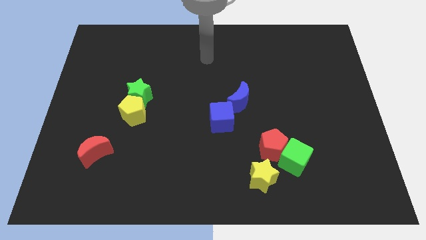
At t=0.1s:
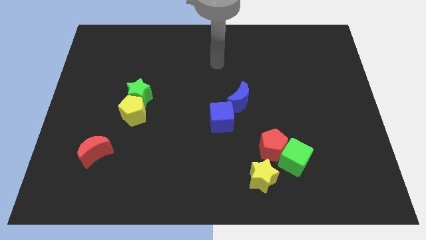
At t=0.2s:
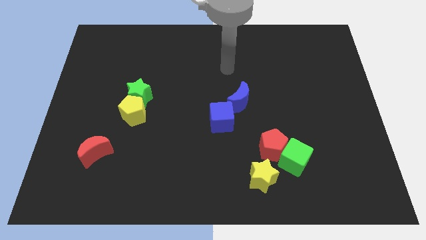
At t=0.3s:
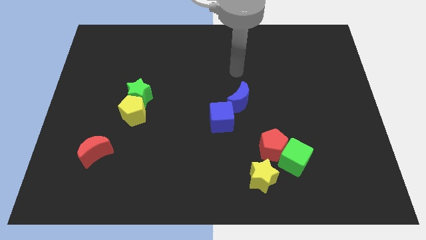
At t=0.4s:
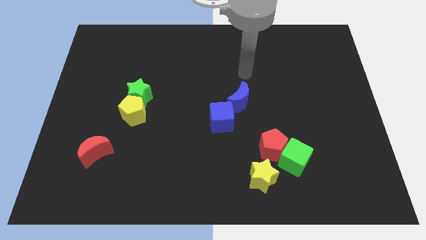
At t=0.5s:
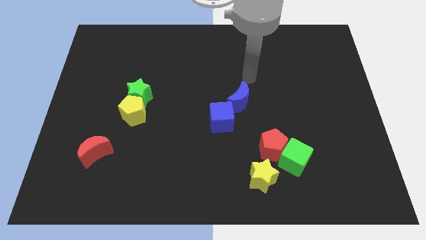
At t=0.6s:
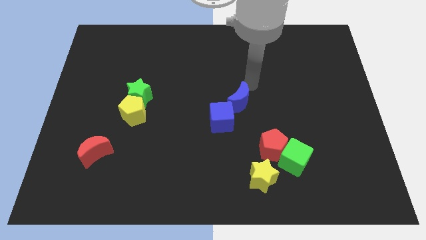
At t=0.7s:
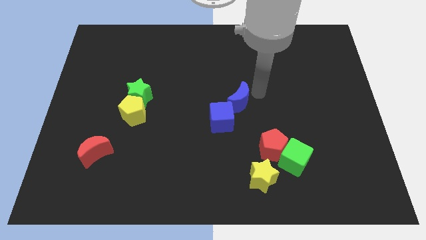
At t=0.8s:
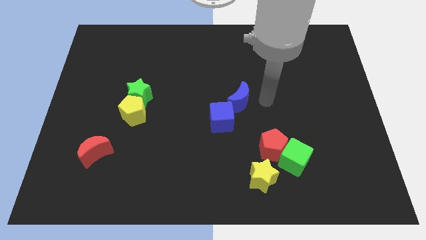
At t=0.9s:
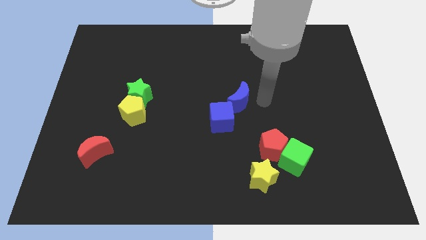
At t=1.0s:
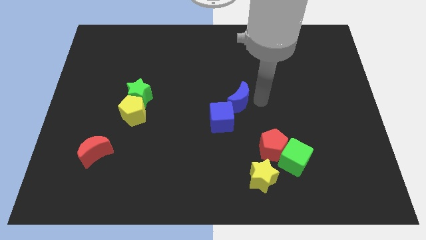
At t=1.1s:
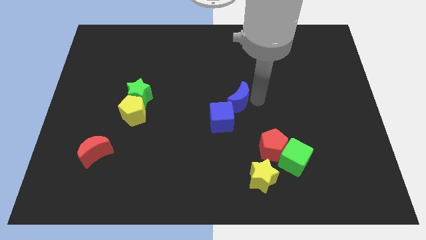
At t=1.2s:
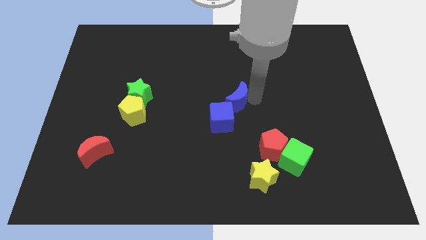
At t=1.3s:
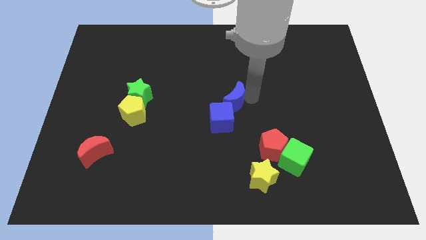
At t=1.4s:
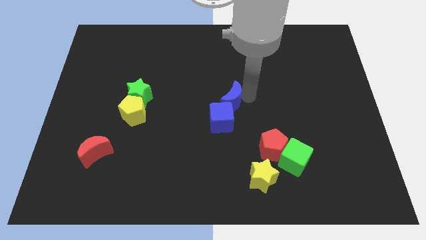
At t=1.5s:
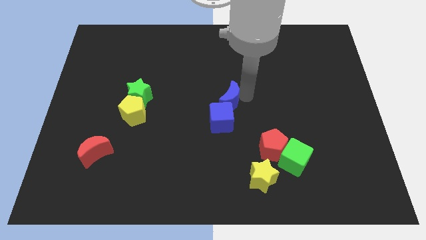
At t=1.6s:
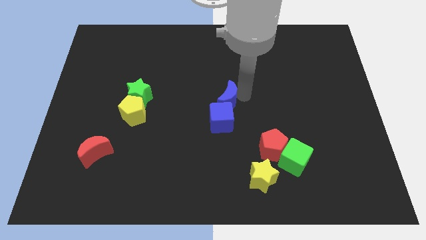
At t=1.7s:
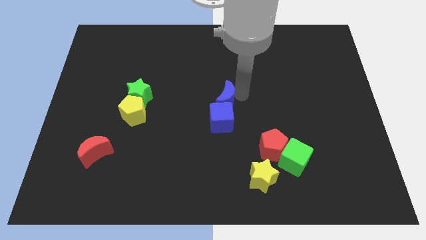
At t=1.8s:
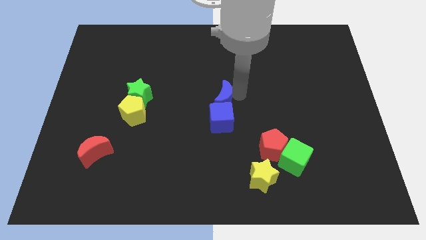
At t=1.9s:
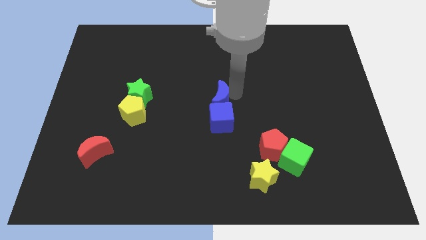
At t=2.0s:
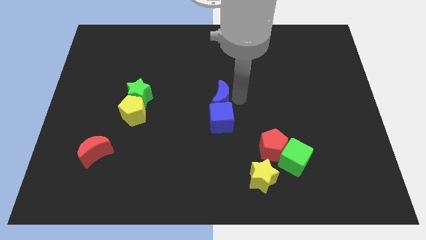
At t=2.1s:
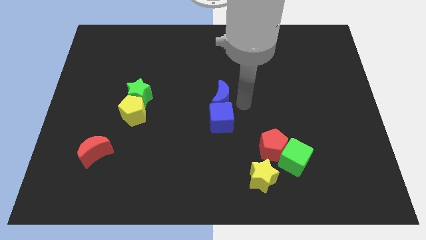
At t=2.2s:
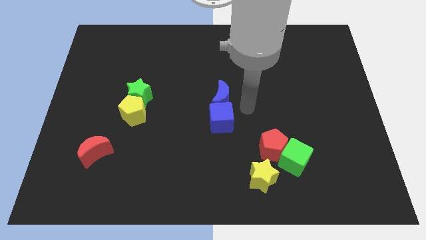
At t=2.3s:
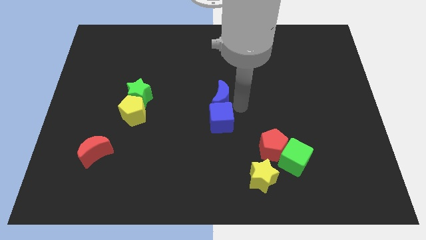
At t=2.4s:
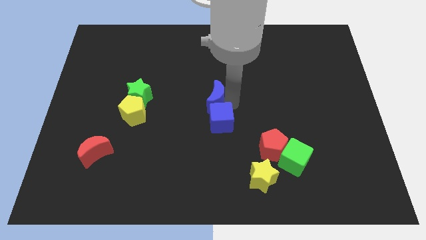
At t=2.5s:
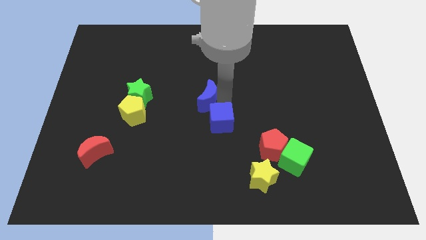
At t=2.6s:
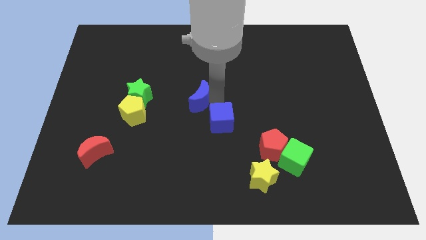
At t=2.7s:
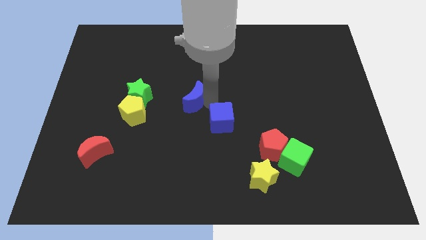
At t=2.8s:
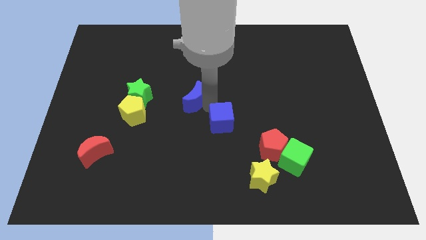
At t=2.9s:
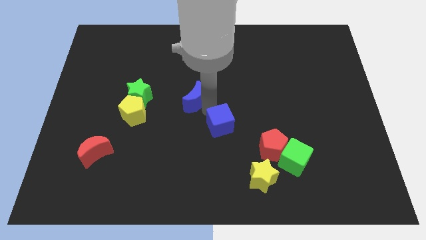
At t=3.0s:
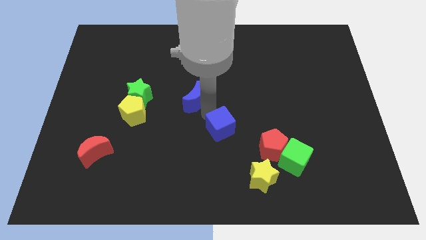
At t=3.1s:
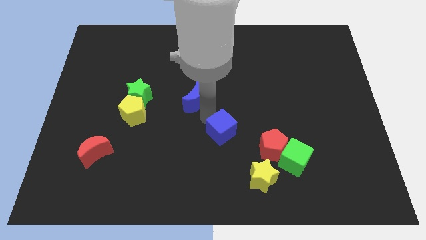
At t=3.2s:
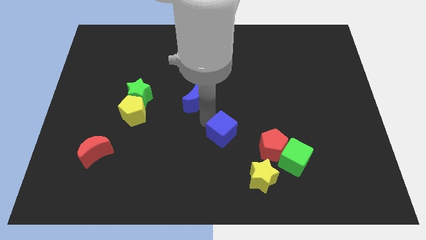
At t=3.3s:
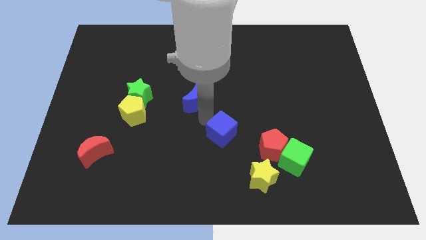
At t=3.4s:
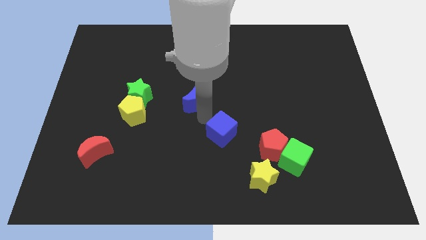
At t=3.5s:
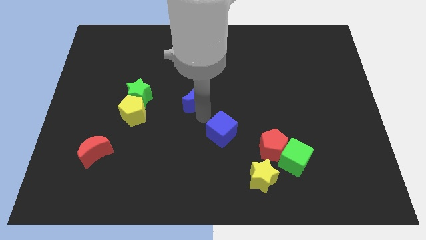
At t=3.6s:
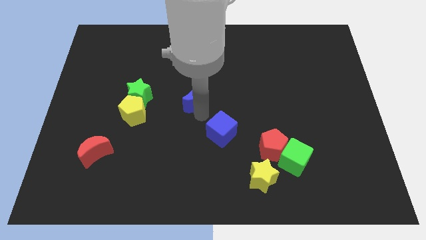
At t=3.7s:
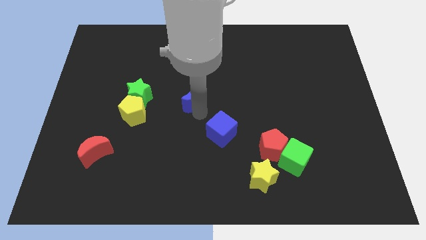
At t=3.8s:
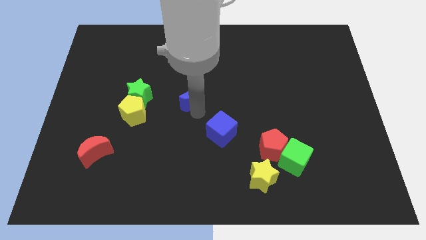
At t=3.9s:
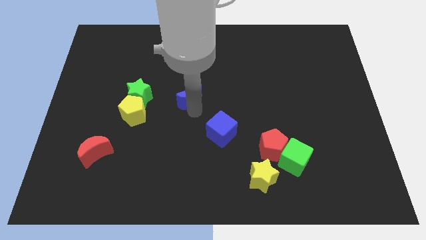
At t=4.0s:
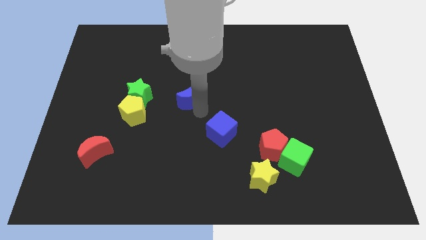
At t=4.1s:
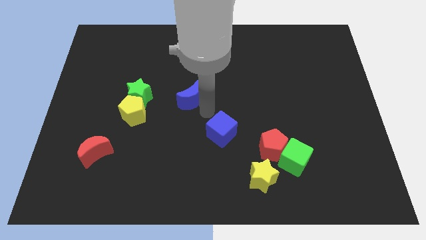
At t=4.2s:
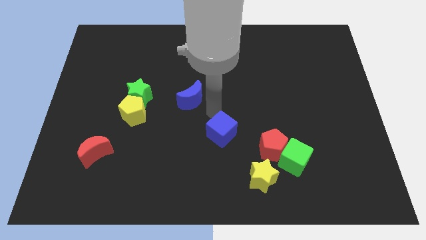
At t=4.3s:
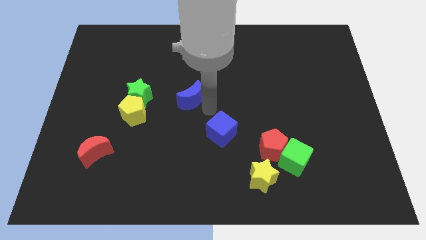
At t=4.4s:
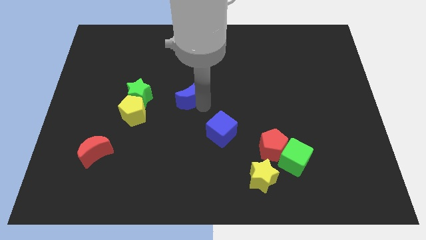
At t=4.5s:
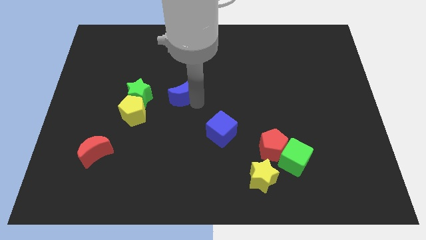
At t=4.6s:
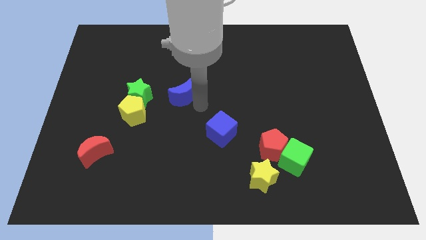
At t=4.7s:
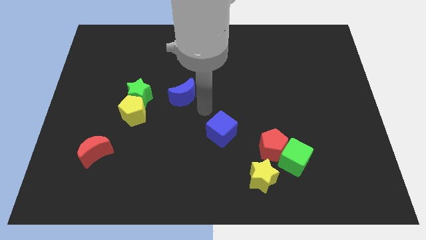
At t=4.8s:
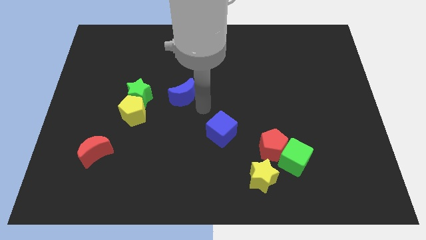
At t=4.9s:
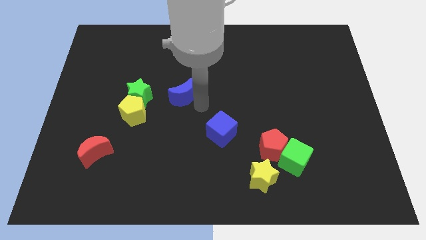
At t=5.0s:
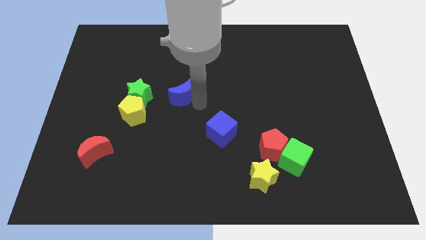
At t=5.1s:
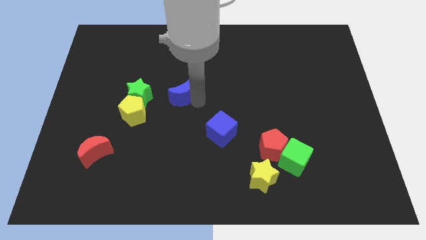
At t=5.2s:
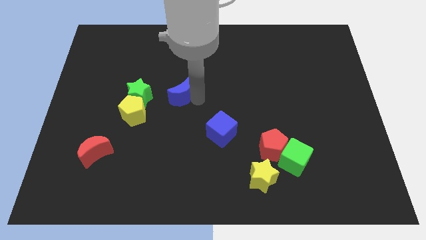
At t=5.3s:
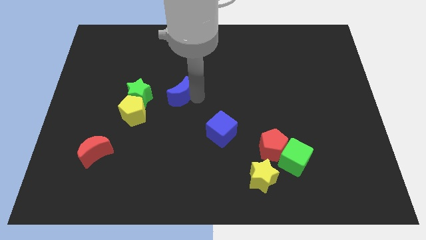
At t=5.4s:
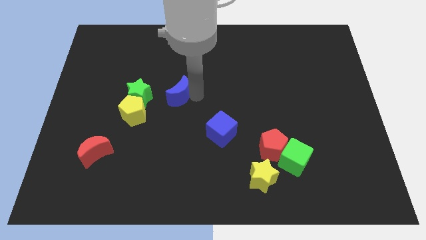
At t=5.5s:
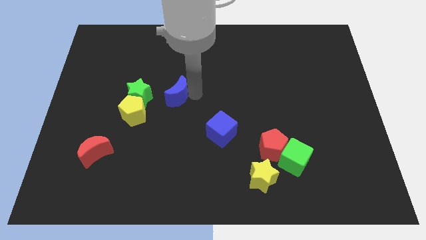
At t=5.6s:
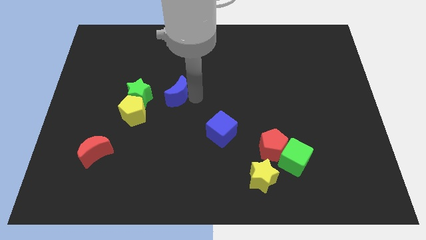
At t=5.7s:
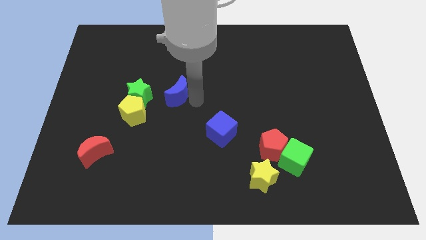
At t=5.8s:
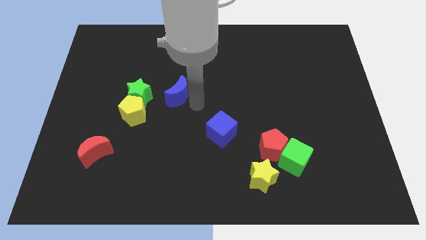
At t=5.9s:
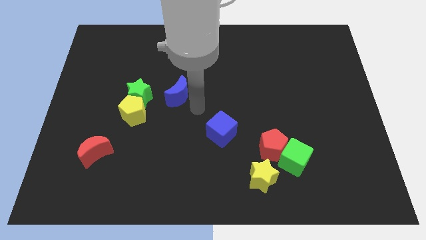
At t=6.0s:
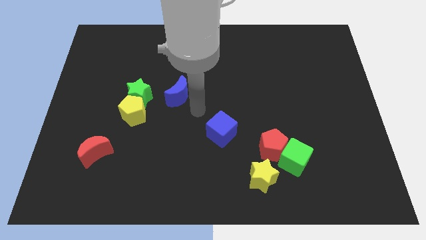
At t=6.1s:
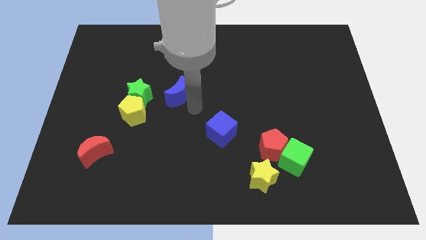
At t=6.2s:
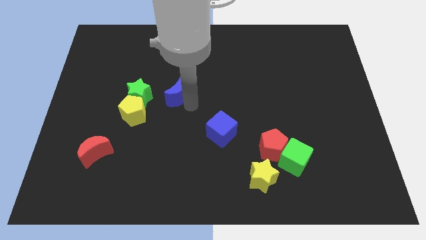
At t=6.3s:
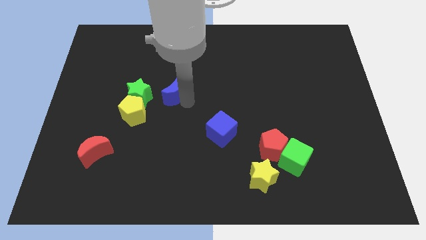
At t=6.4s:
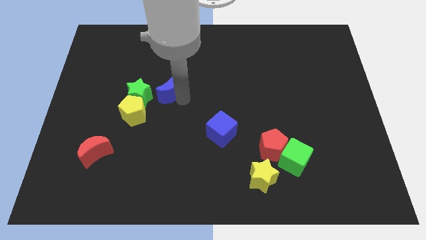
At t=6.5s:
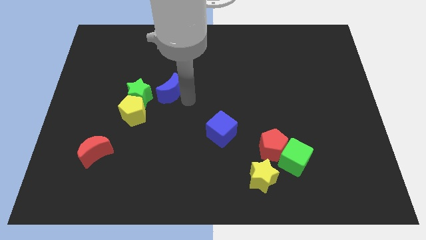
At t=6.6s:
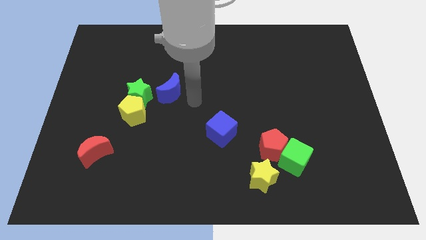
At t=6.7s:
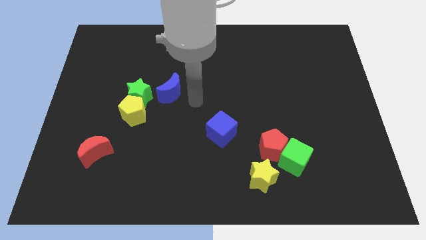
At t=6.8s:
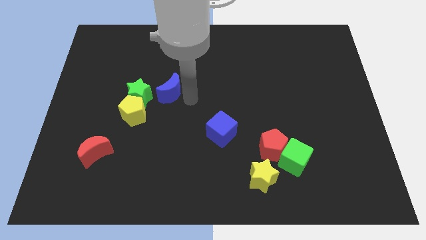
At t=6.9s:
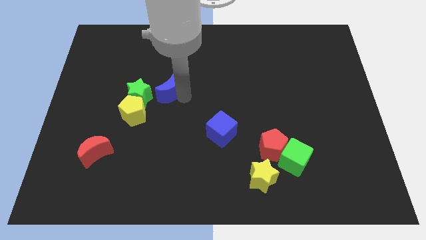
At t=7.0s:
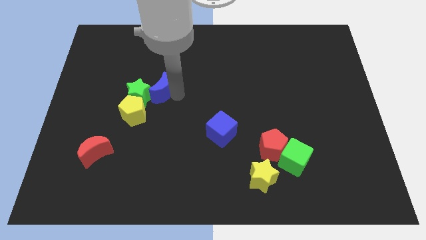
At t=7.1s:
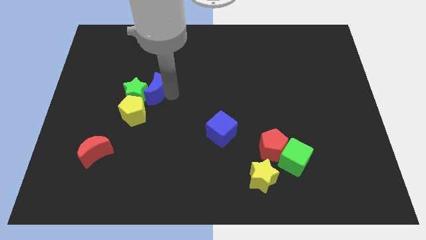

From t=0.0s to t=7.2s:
slide the blue moon to the left

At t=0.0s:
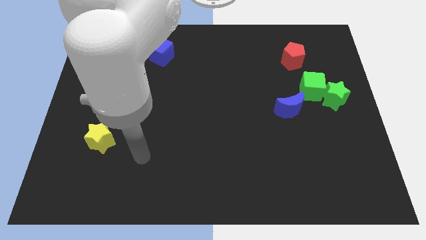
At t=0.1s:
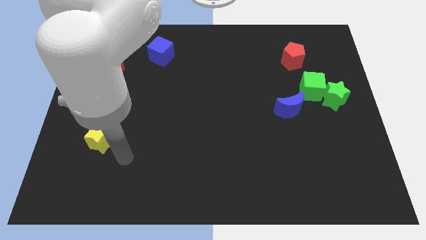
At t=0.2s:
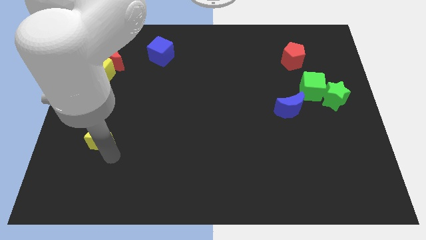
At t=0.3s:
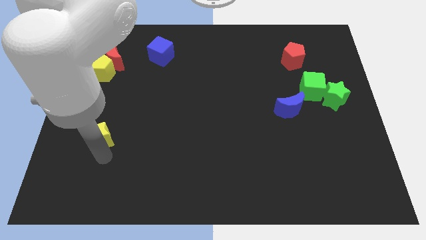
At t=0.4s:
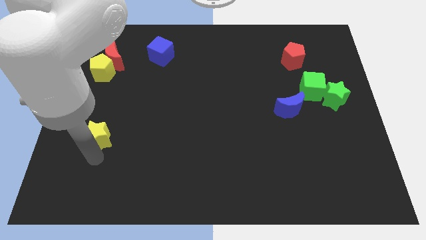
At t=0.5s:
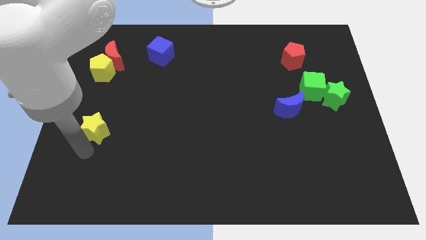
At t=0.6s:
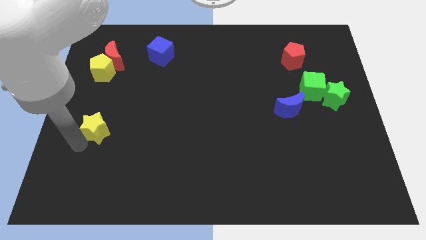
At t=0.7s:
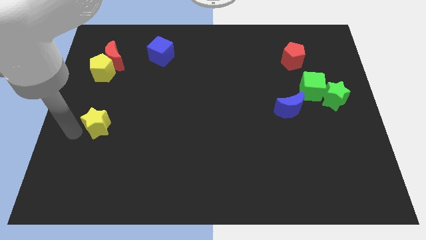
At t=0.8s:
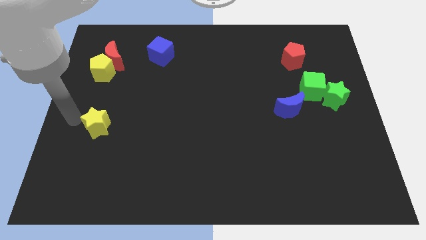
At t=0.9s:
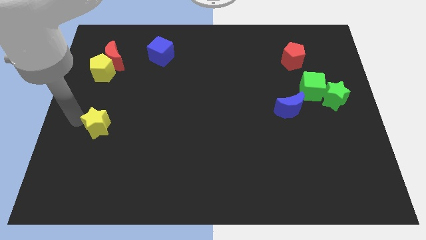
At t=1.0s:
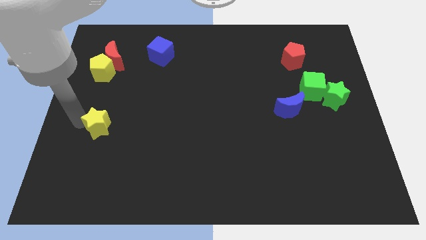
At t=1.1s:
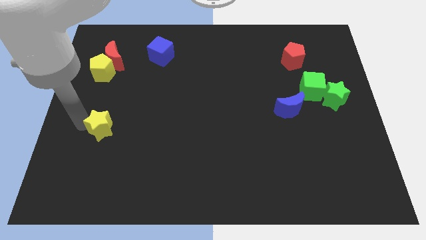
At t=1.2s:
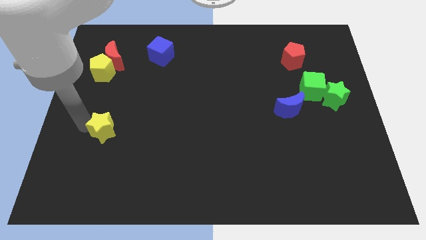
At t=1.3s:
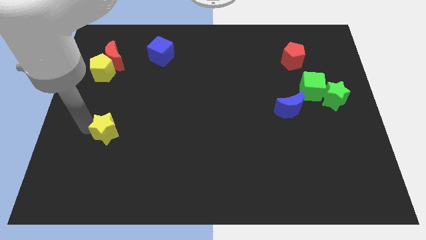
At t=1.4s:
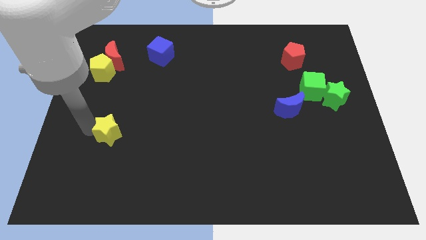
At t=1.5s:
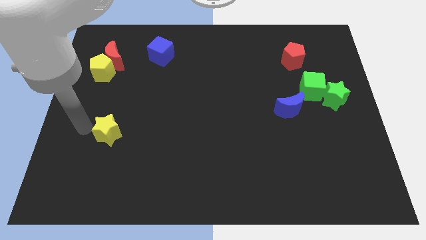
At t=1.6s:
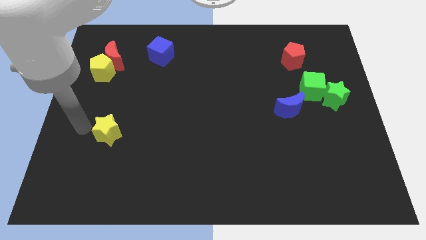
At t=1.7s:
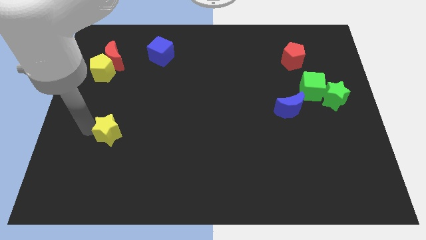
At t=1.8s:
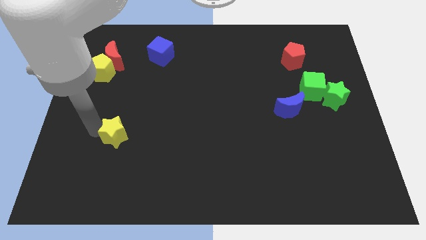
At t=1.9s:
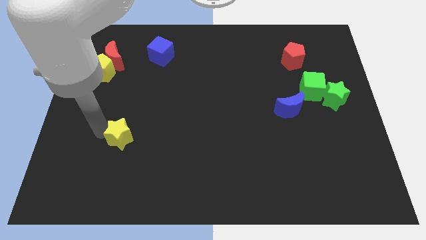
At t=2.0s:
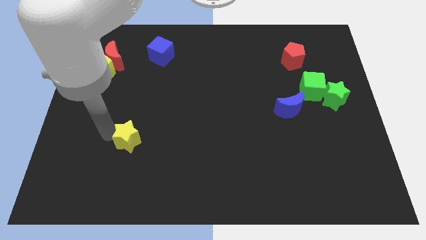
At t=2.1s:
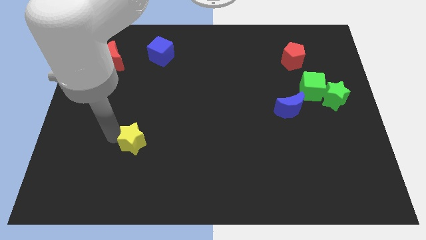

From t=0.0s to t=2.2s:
slightly slide the yellow star to the right
